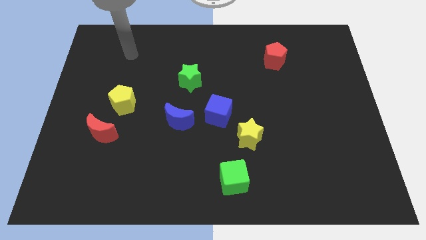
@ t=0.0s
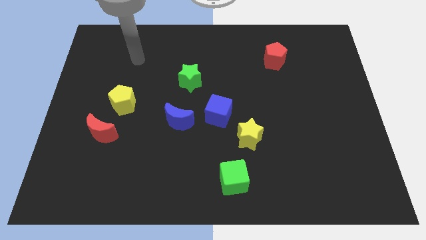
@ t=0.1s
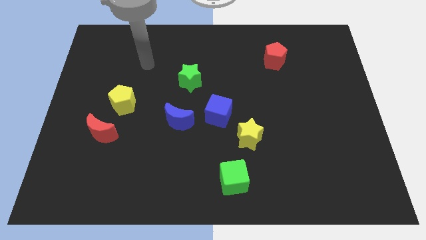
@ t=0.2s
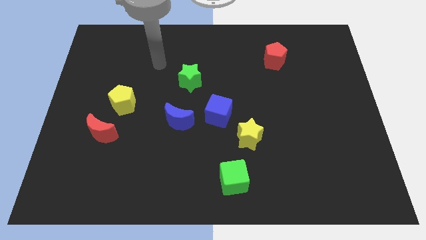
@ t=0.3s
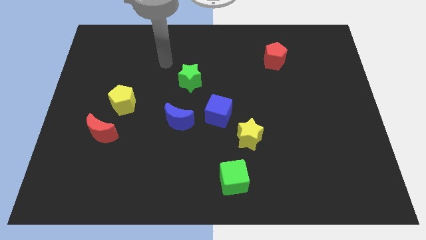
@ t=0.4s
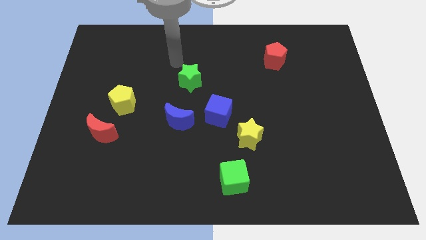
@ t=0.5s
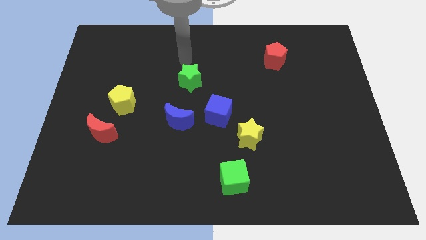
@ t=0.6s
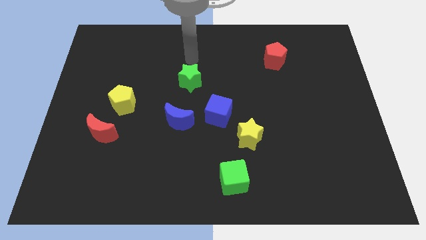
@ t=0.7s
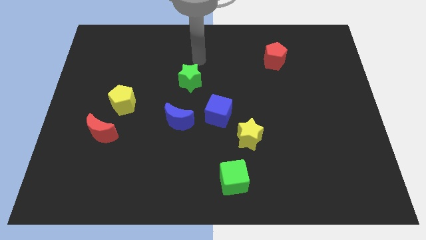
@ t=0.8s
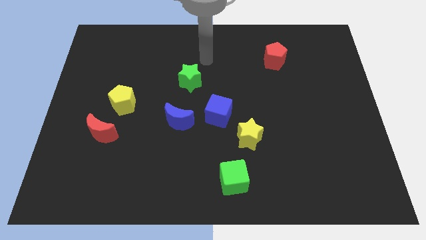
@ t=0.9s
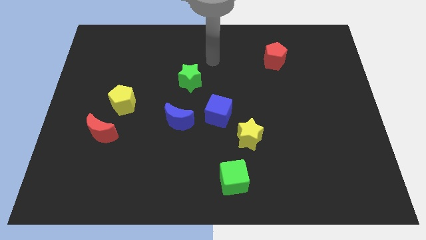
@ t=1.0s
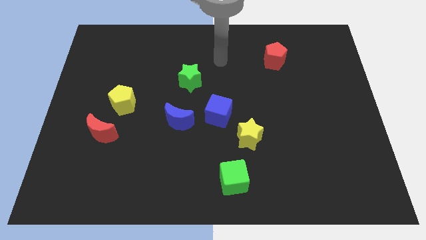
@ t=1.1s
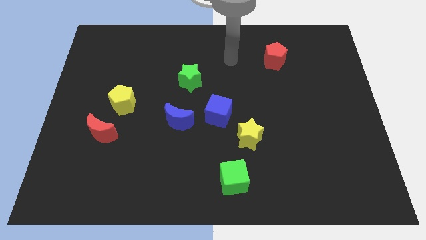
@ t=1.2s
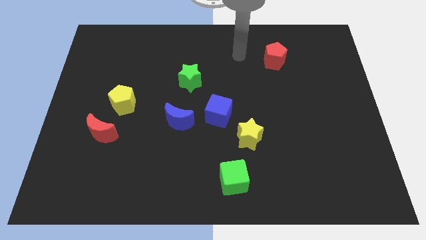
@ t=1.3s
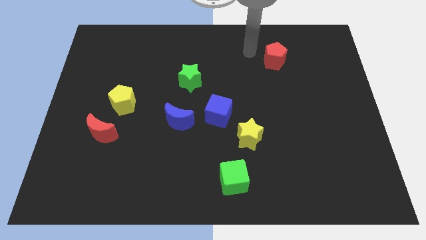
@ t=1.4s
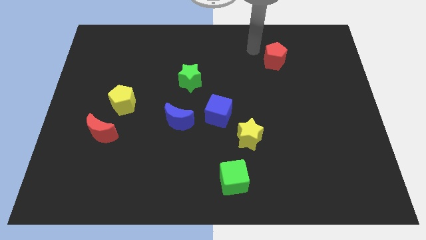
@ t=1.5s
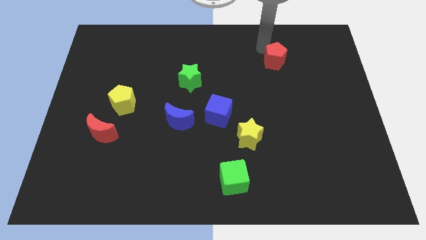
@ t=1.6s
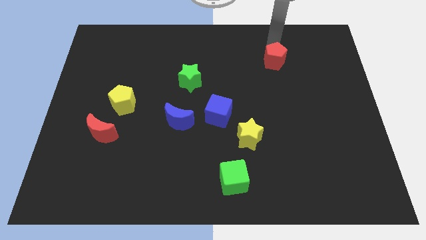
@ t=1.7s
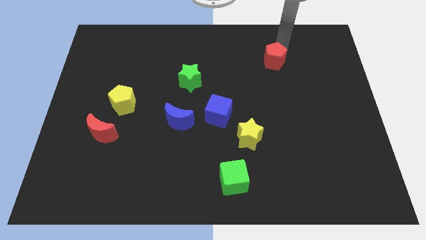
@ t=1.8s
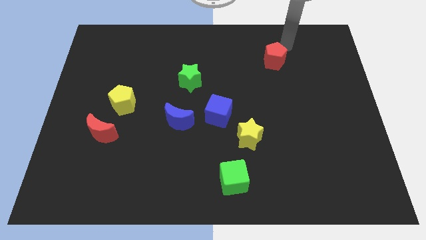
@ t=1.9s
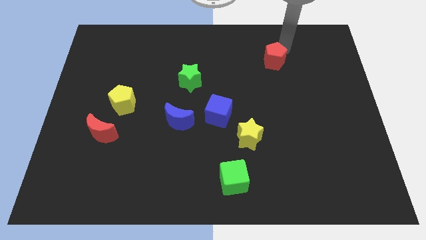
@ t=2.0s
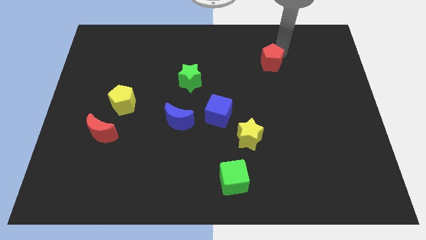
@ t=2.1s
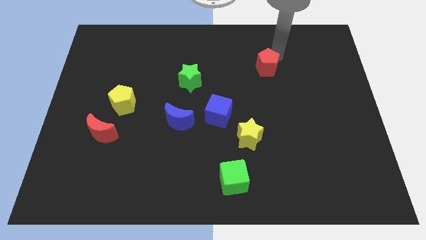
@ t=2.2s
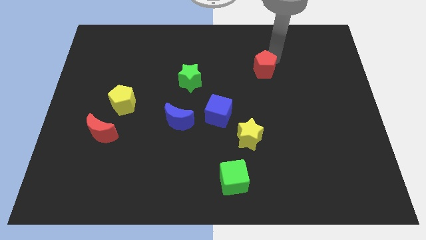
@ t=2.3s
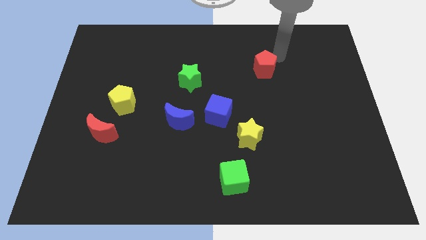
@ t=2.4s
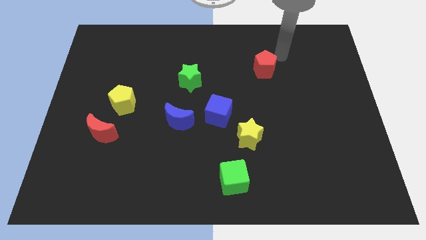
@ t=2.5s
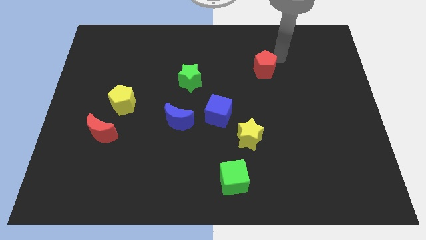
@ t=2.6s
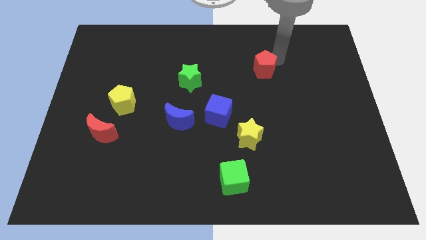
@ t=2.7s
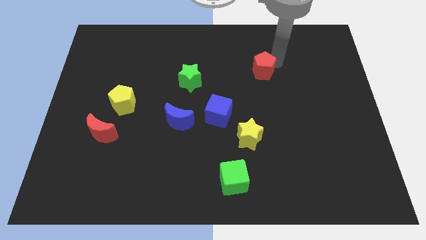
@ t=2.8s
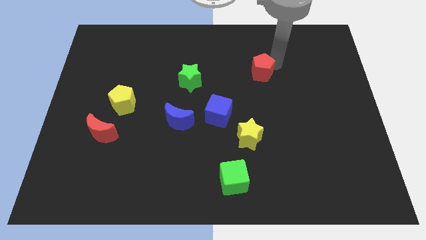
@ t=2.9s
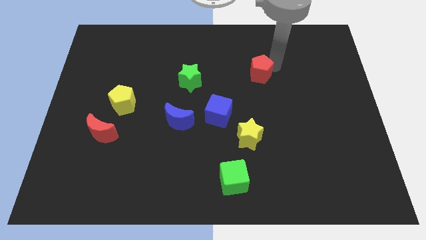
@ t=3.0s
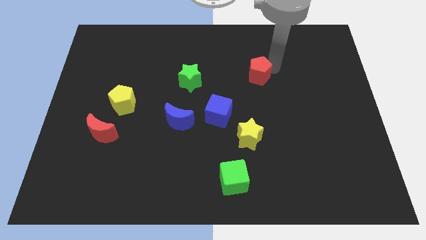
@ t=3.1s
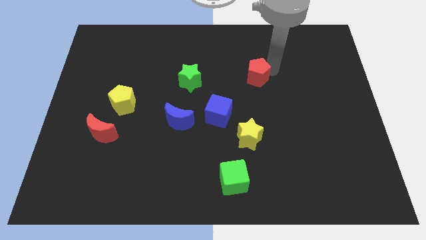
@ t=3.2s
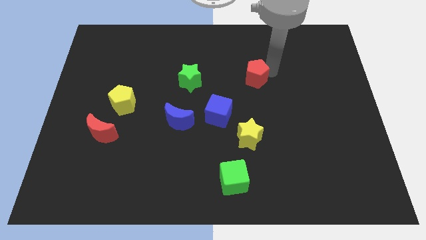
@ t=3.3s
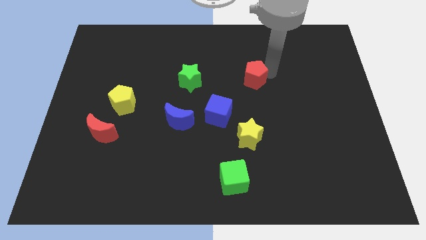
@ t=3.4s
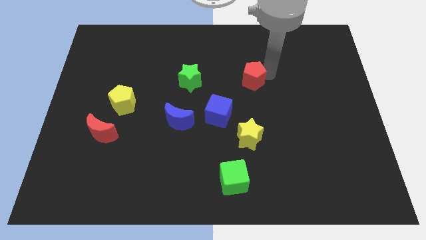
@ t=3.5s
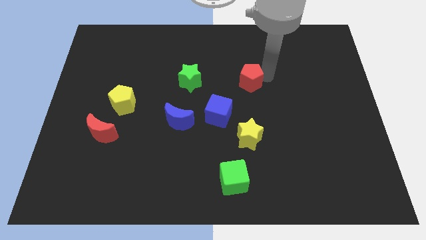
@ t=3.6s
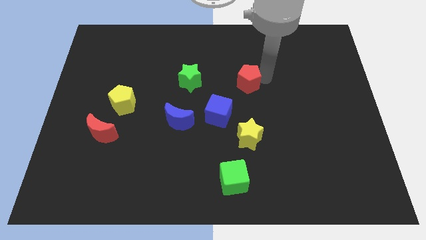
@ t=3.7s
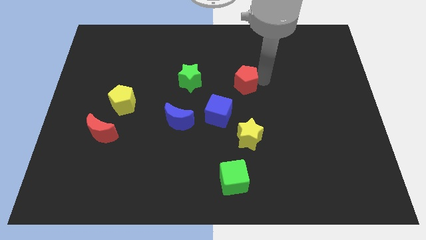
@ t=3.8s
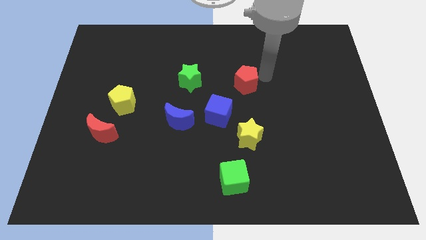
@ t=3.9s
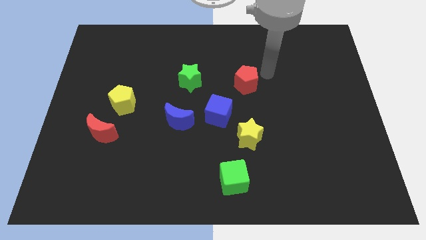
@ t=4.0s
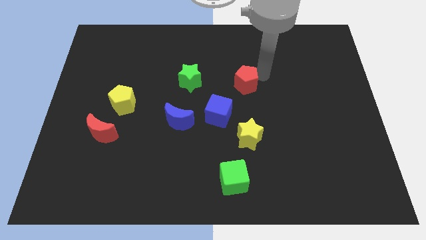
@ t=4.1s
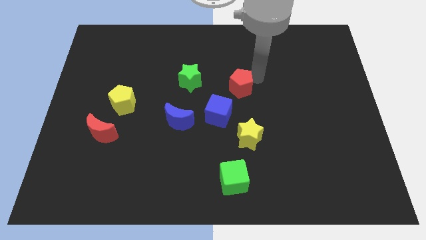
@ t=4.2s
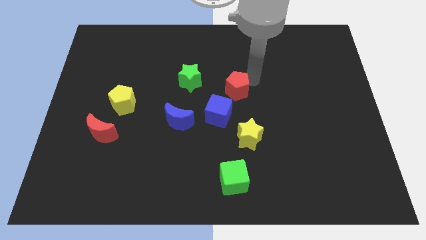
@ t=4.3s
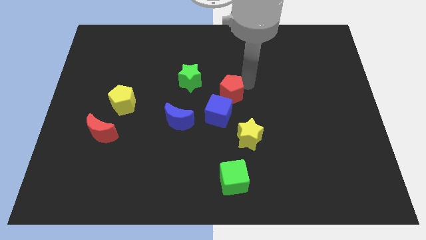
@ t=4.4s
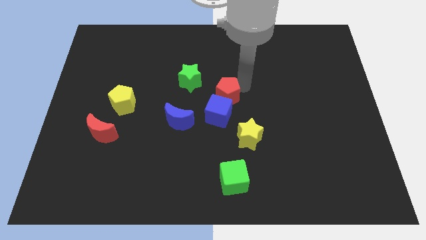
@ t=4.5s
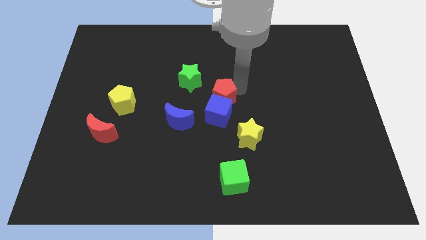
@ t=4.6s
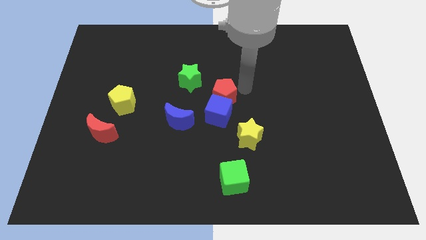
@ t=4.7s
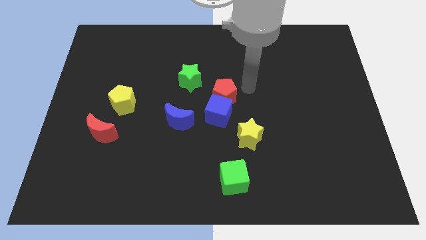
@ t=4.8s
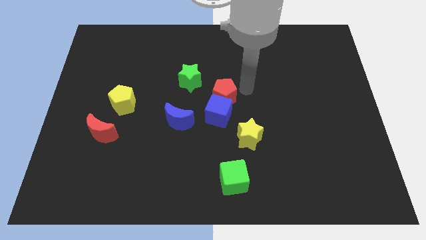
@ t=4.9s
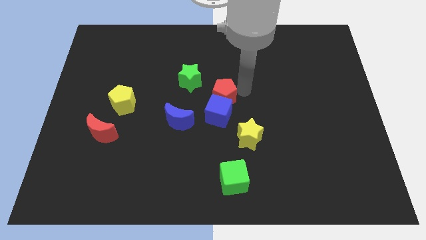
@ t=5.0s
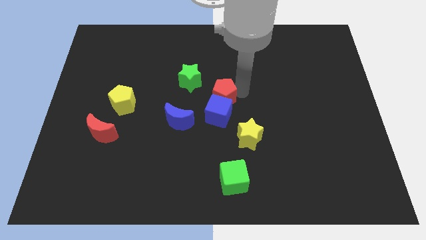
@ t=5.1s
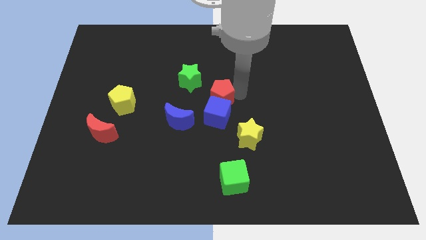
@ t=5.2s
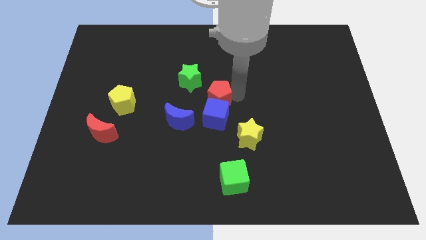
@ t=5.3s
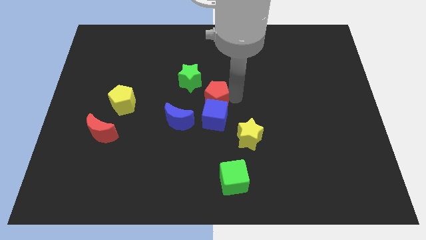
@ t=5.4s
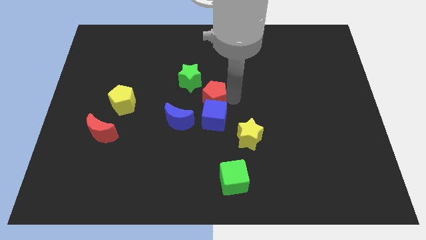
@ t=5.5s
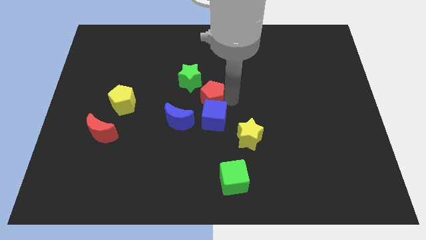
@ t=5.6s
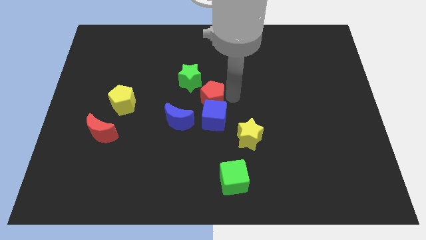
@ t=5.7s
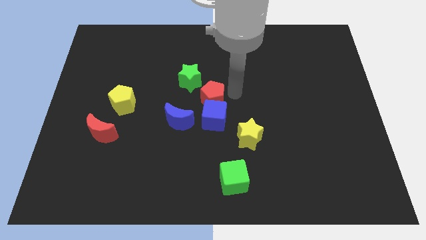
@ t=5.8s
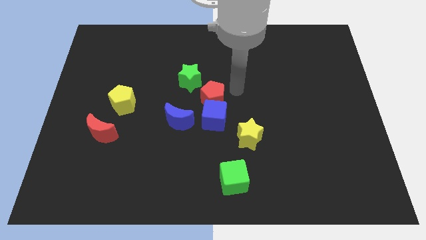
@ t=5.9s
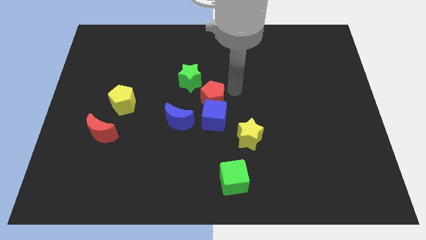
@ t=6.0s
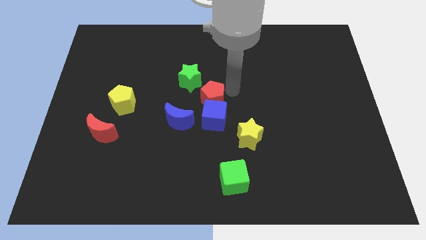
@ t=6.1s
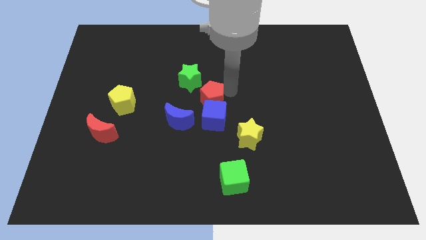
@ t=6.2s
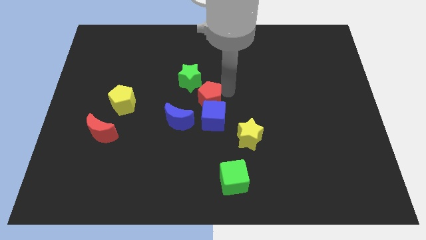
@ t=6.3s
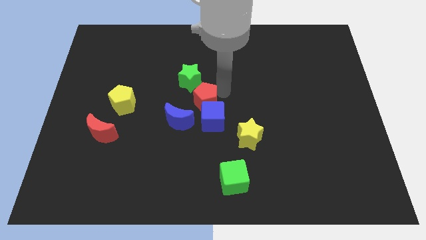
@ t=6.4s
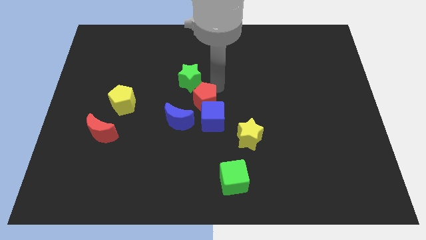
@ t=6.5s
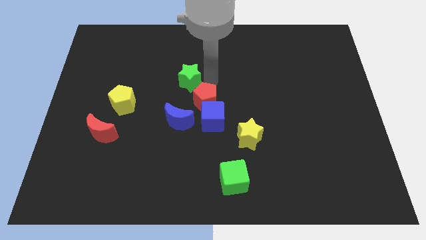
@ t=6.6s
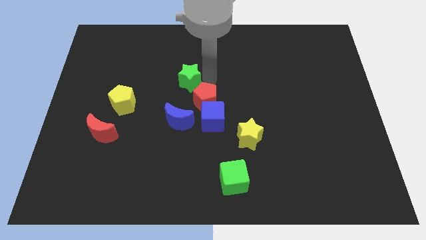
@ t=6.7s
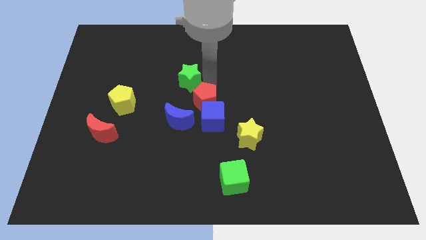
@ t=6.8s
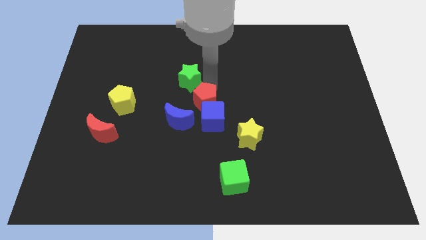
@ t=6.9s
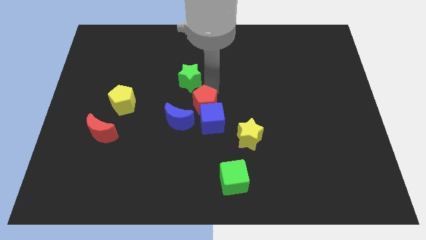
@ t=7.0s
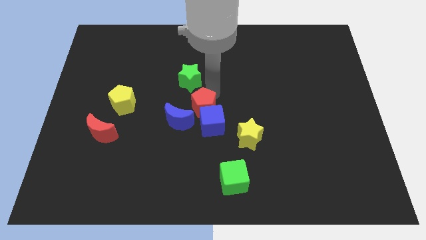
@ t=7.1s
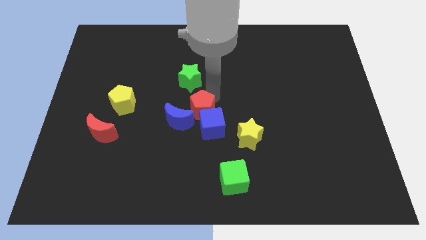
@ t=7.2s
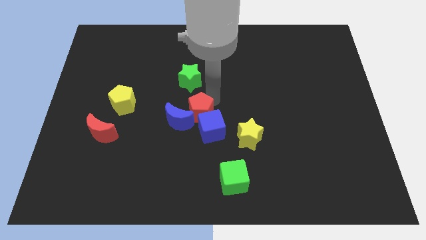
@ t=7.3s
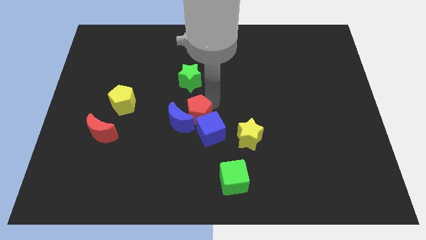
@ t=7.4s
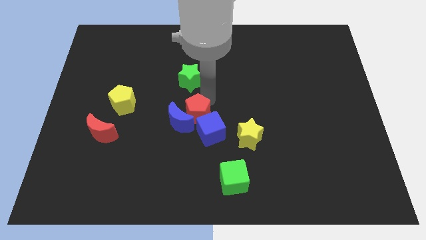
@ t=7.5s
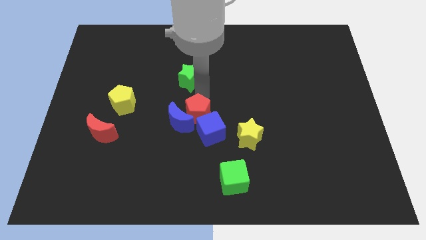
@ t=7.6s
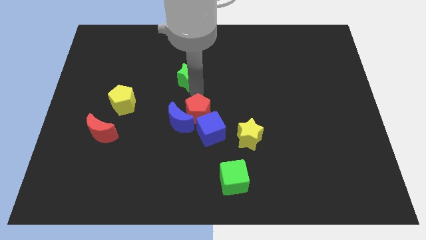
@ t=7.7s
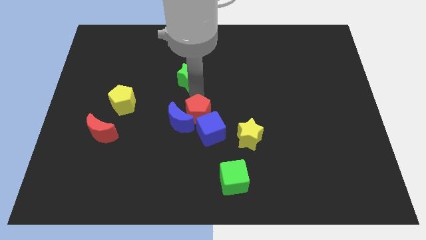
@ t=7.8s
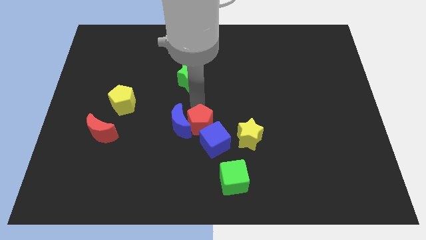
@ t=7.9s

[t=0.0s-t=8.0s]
put the red pentagon diagonally down and to the right of the blue moon
